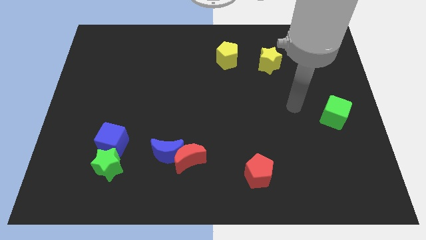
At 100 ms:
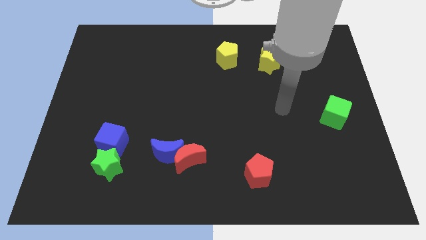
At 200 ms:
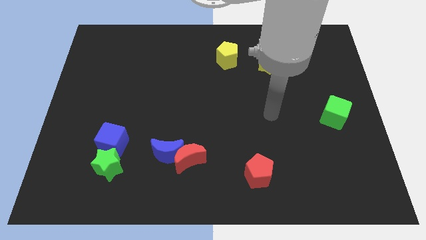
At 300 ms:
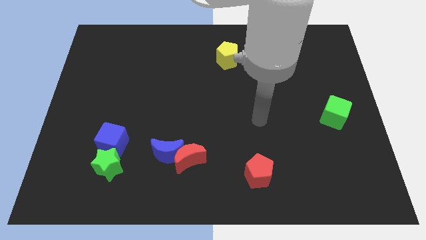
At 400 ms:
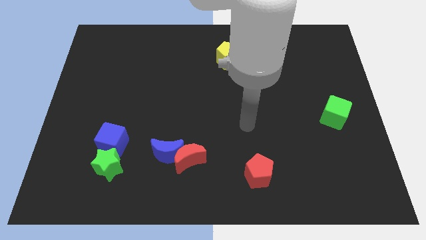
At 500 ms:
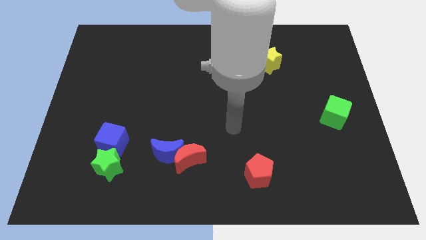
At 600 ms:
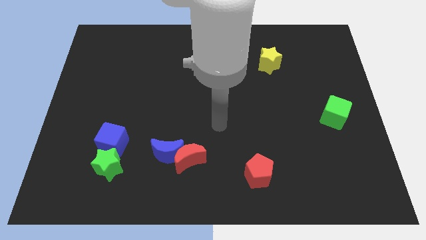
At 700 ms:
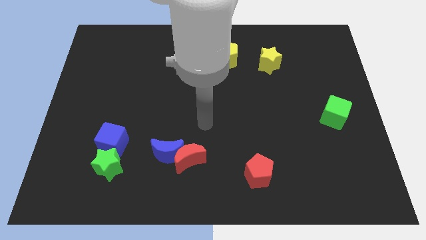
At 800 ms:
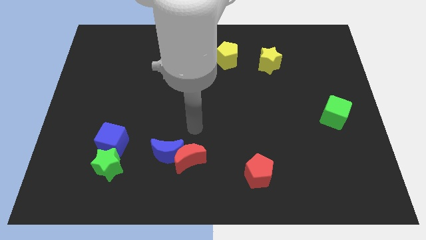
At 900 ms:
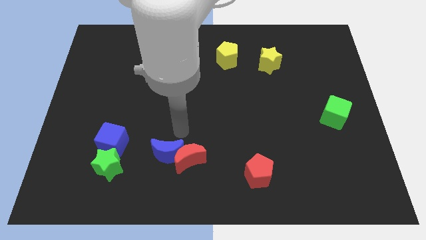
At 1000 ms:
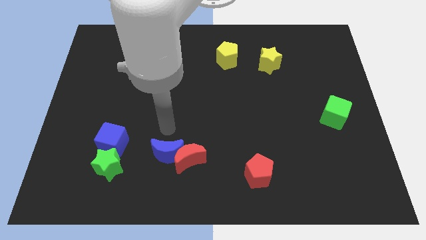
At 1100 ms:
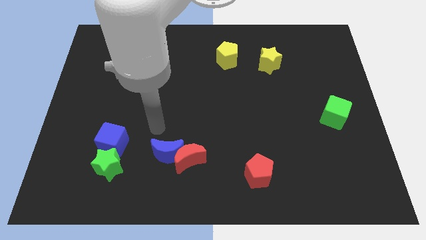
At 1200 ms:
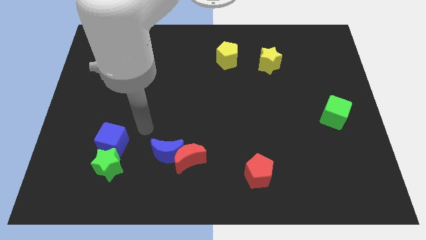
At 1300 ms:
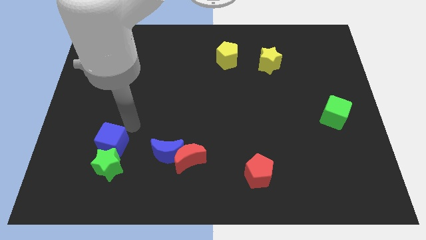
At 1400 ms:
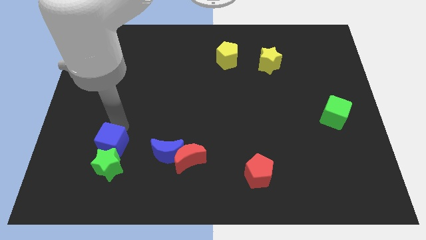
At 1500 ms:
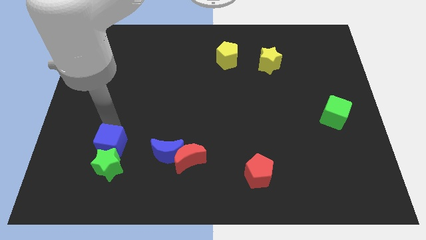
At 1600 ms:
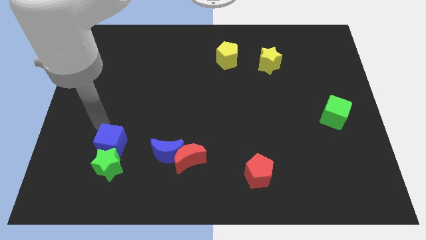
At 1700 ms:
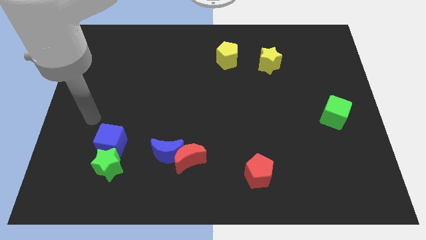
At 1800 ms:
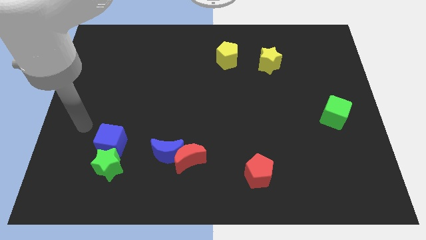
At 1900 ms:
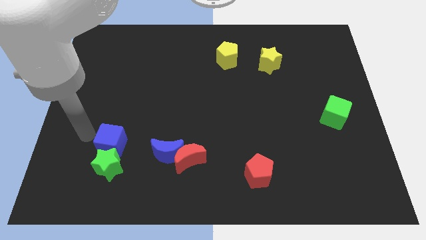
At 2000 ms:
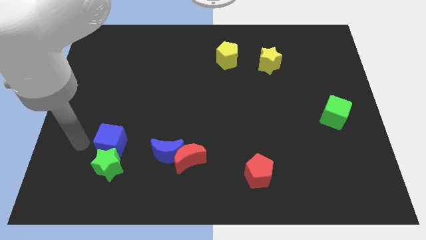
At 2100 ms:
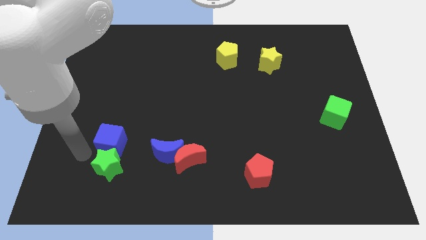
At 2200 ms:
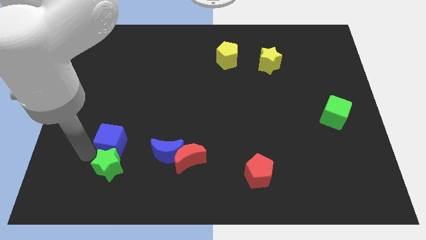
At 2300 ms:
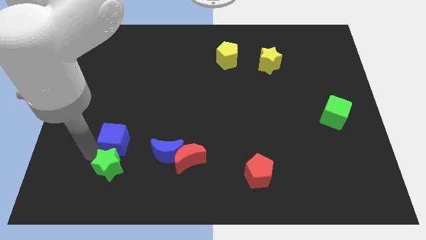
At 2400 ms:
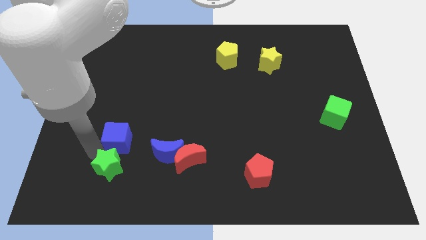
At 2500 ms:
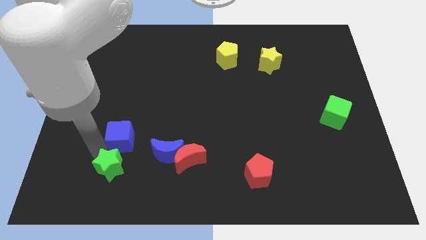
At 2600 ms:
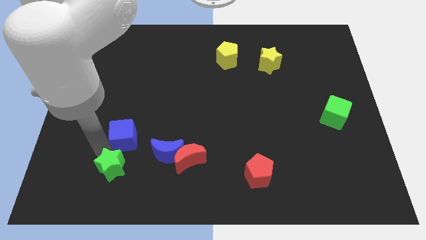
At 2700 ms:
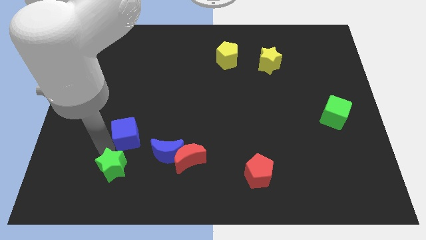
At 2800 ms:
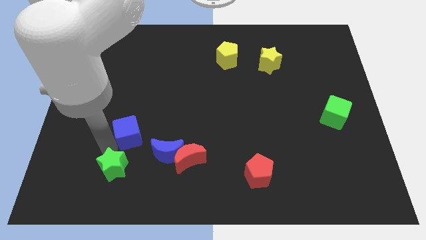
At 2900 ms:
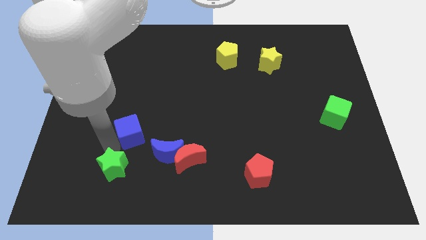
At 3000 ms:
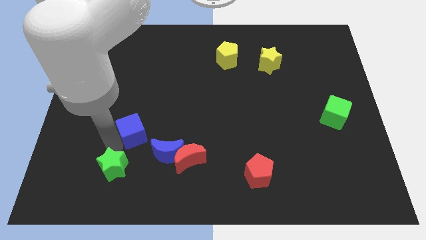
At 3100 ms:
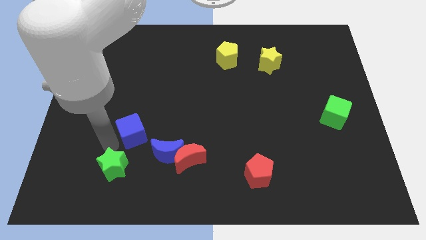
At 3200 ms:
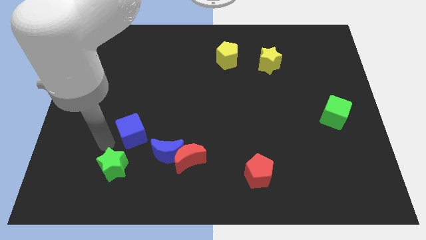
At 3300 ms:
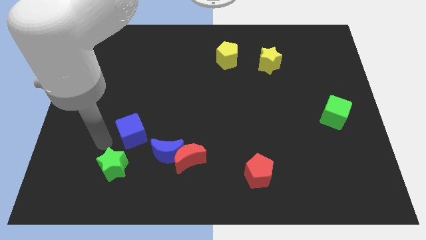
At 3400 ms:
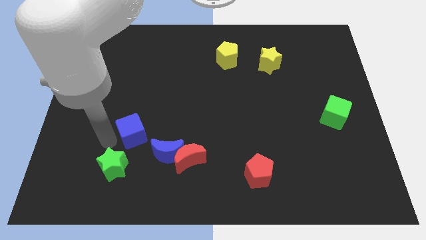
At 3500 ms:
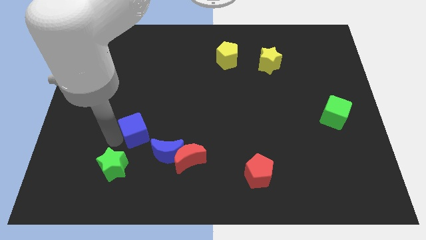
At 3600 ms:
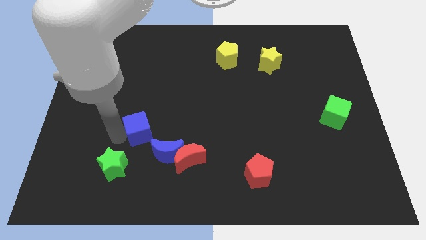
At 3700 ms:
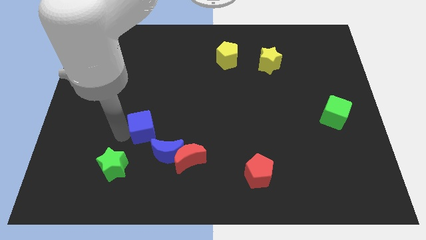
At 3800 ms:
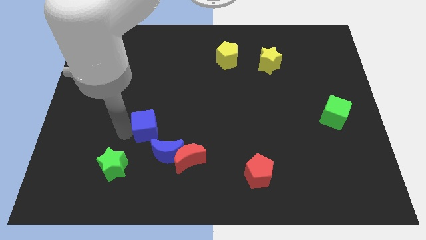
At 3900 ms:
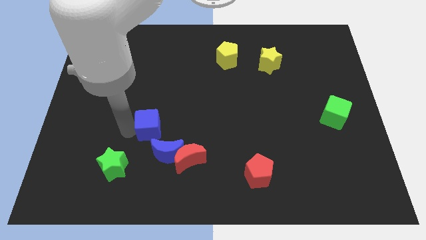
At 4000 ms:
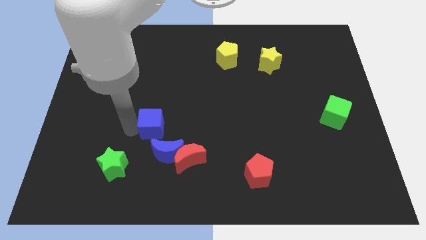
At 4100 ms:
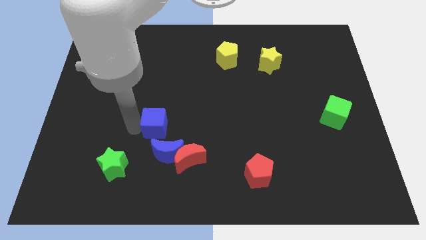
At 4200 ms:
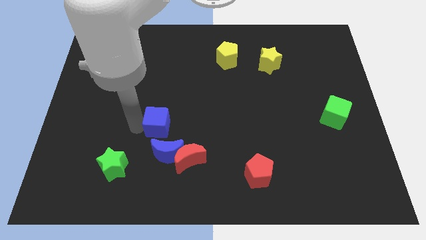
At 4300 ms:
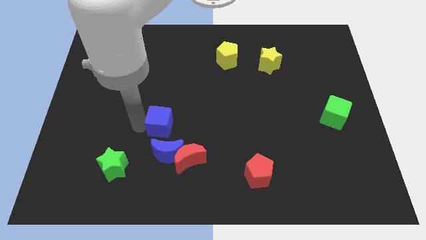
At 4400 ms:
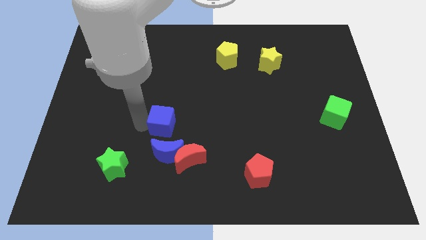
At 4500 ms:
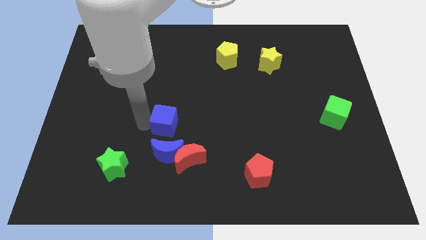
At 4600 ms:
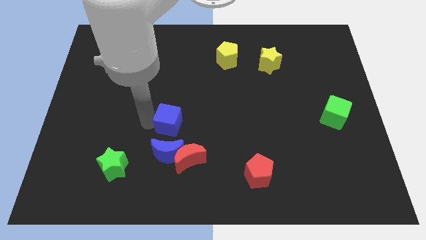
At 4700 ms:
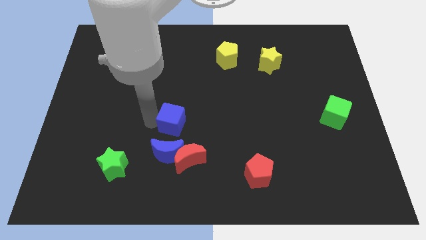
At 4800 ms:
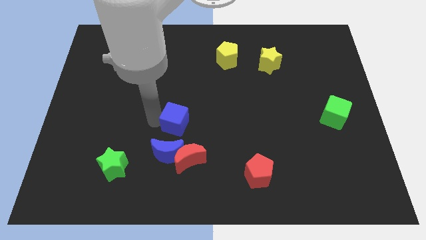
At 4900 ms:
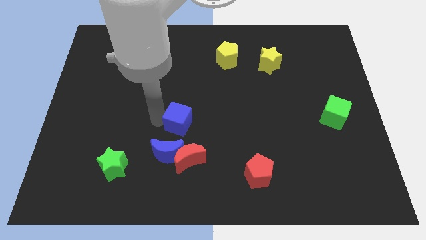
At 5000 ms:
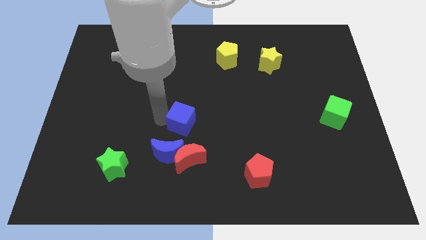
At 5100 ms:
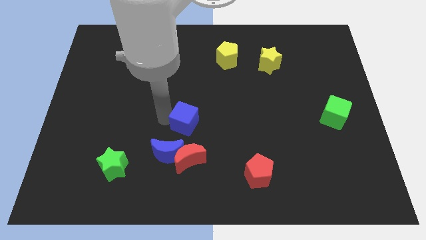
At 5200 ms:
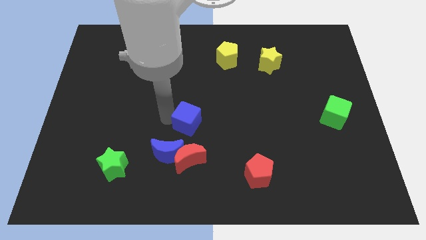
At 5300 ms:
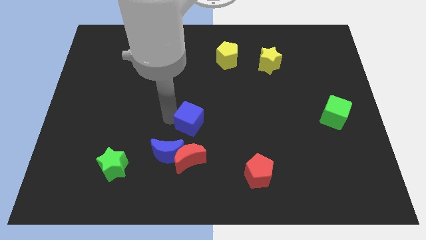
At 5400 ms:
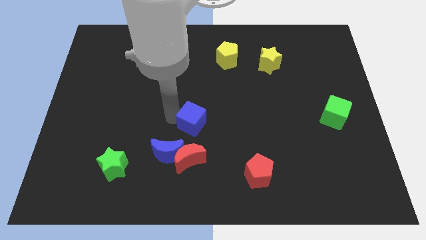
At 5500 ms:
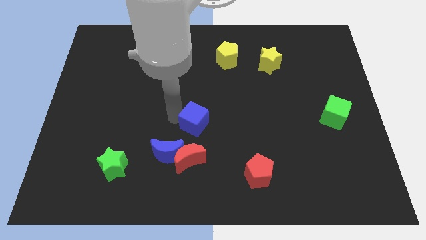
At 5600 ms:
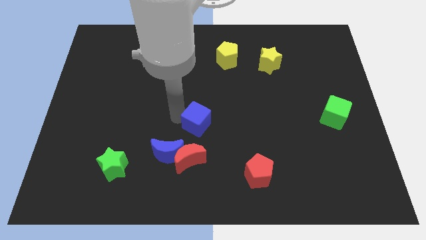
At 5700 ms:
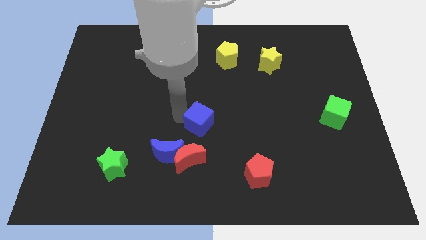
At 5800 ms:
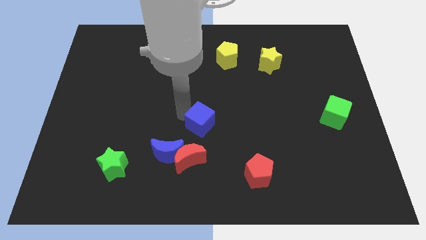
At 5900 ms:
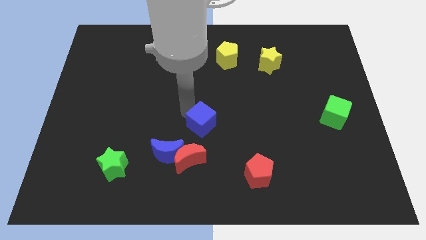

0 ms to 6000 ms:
push the blue cube to the top right of the red moon

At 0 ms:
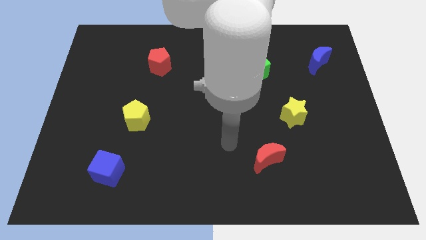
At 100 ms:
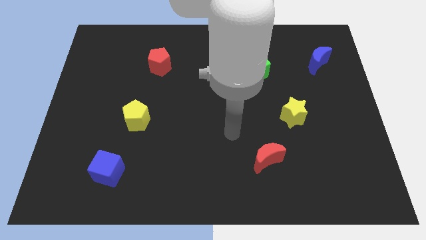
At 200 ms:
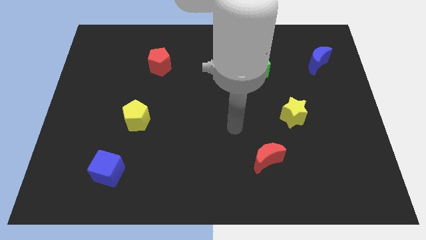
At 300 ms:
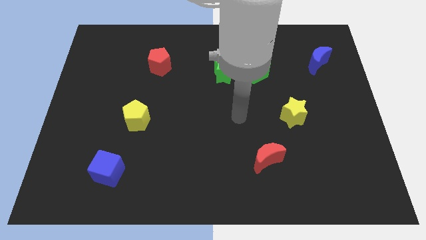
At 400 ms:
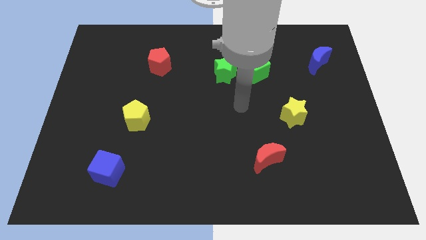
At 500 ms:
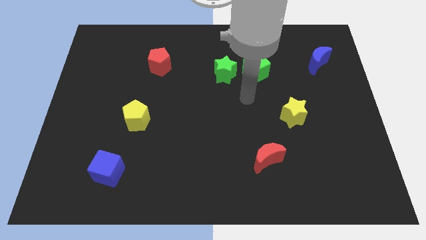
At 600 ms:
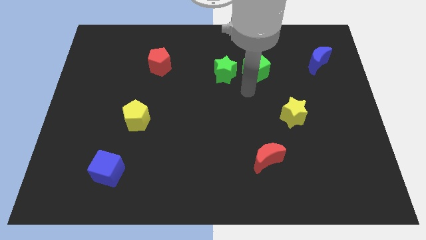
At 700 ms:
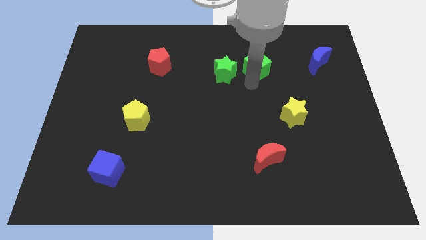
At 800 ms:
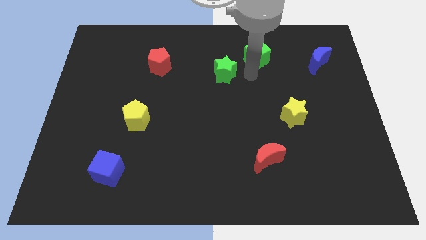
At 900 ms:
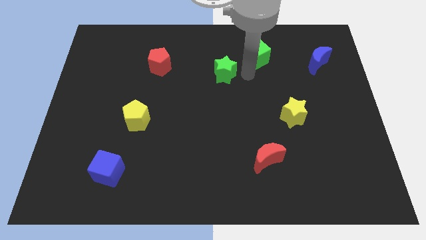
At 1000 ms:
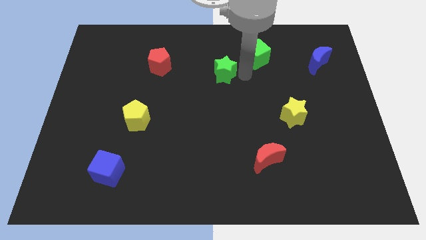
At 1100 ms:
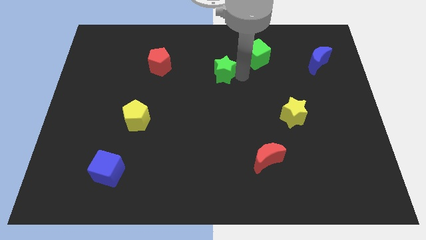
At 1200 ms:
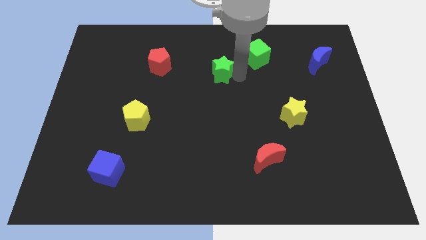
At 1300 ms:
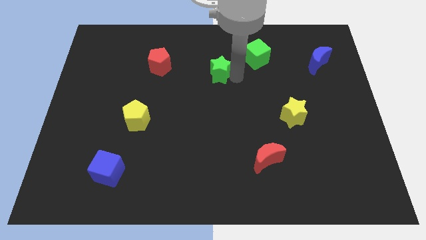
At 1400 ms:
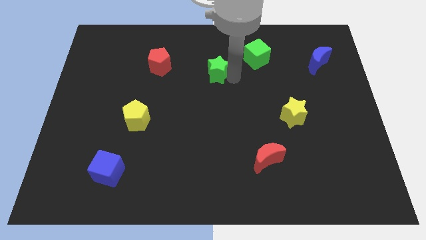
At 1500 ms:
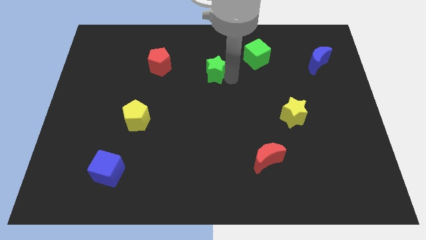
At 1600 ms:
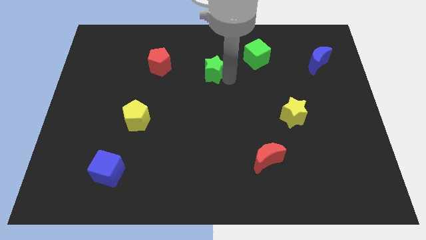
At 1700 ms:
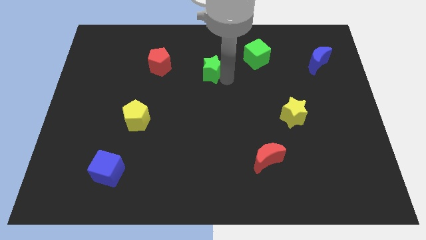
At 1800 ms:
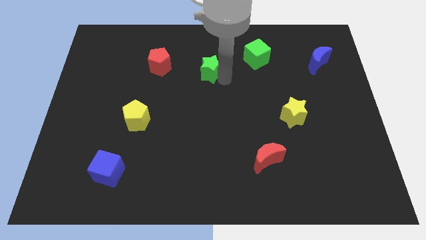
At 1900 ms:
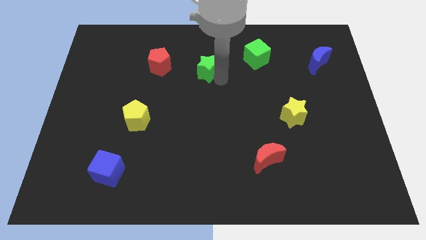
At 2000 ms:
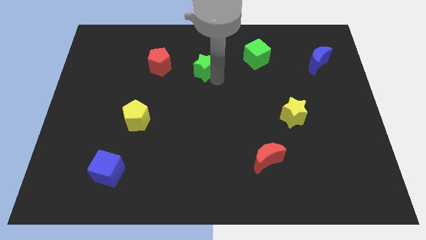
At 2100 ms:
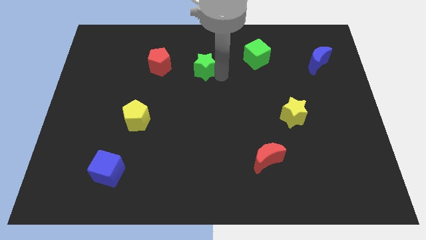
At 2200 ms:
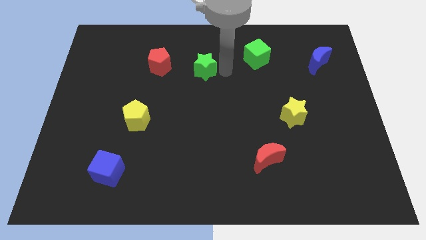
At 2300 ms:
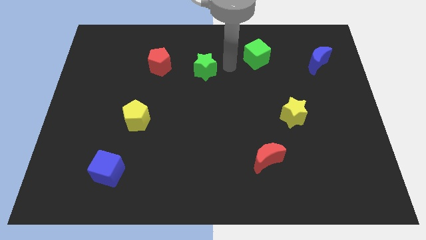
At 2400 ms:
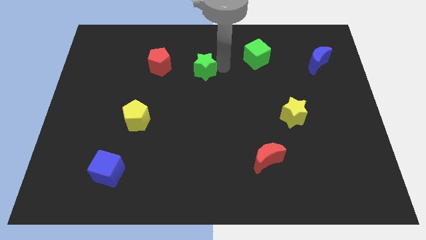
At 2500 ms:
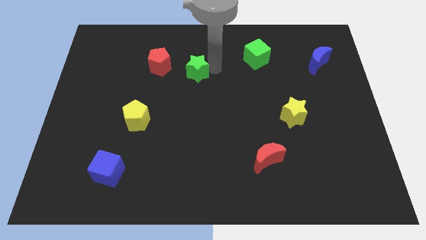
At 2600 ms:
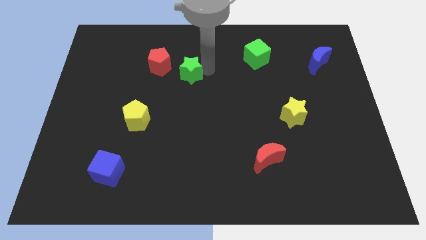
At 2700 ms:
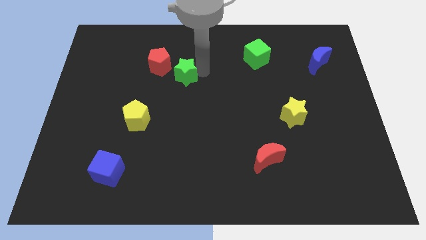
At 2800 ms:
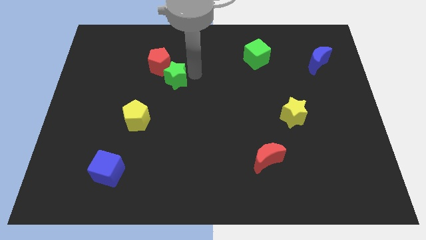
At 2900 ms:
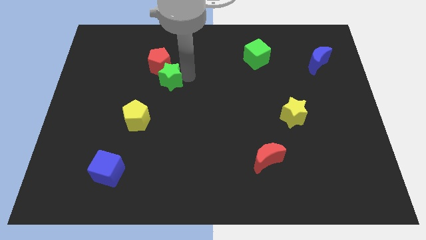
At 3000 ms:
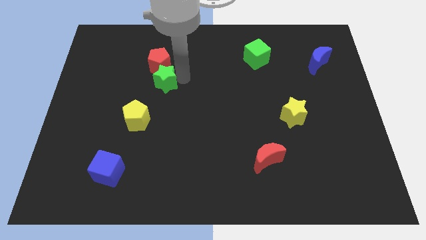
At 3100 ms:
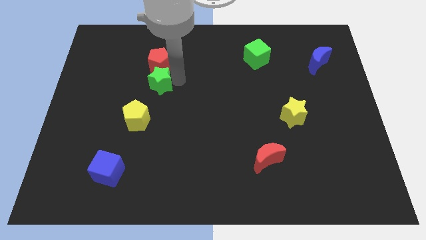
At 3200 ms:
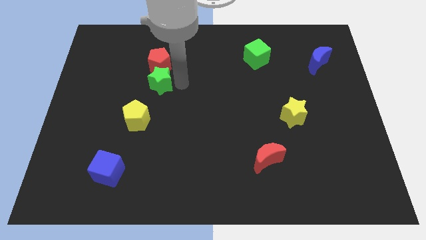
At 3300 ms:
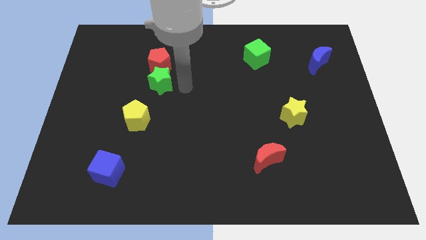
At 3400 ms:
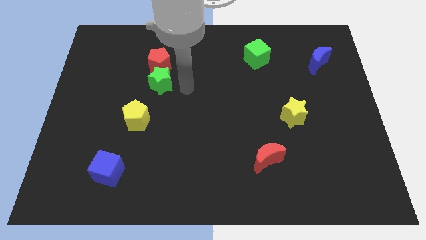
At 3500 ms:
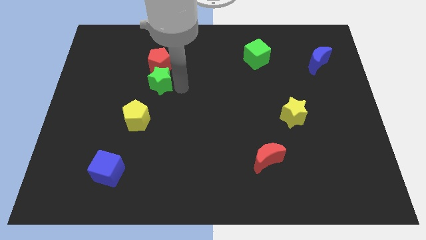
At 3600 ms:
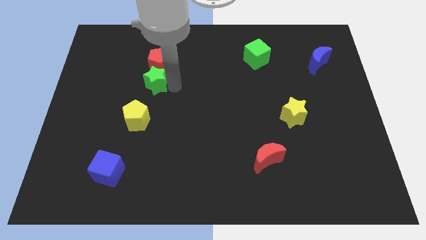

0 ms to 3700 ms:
push the green star to the bottom left side of the red pentagon
